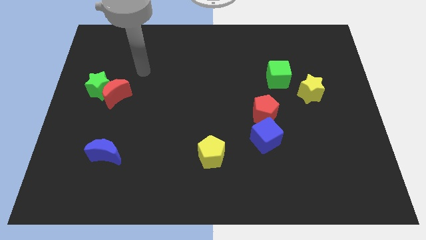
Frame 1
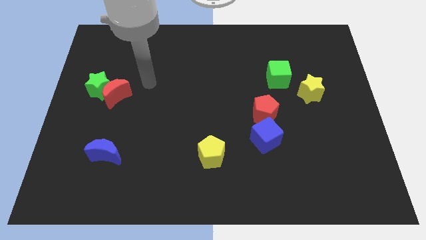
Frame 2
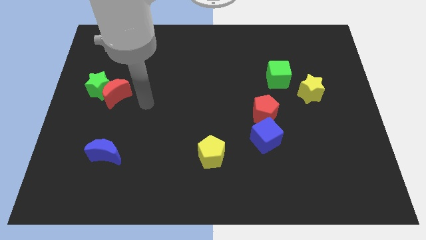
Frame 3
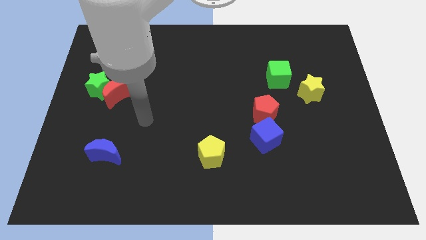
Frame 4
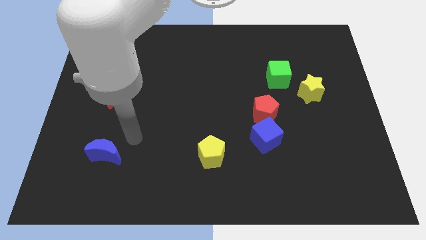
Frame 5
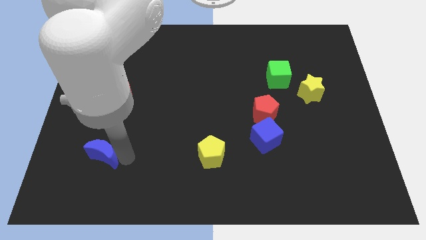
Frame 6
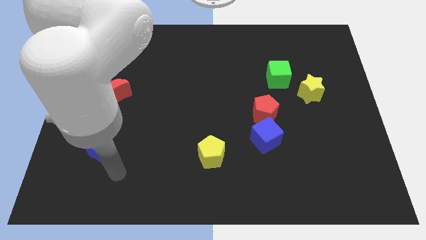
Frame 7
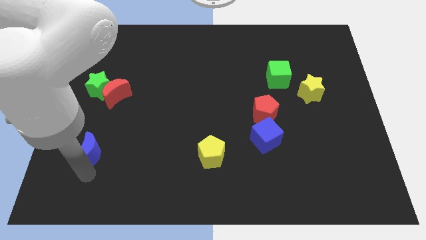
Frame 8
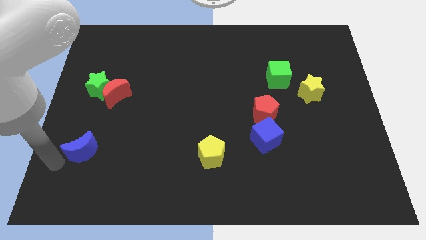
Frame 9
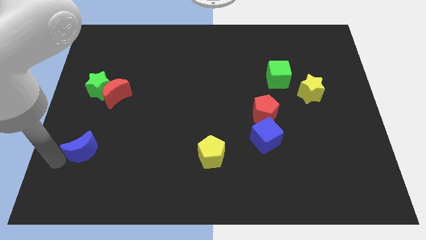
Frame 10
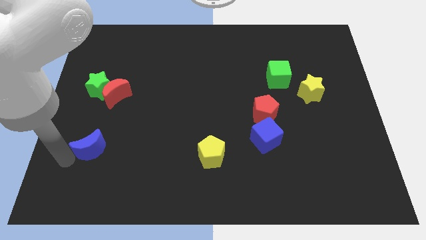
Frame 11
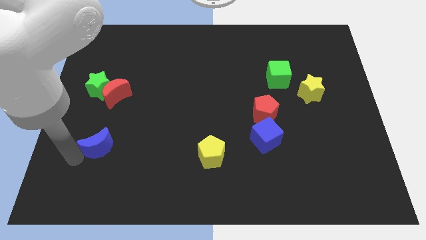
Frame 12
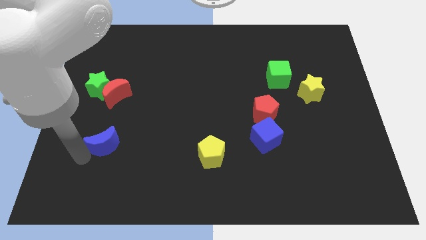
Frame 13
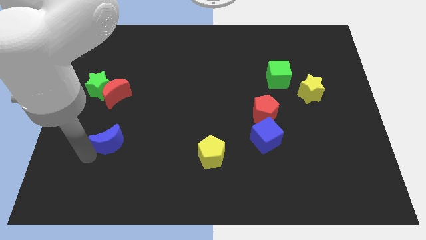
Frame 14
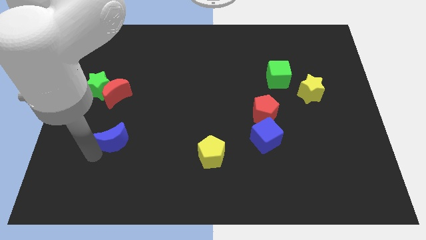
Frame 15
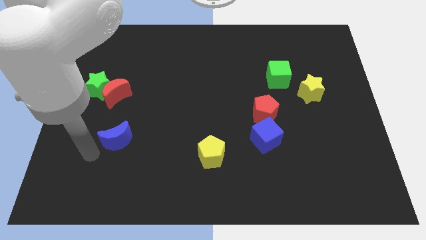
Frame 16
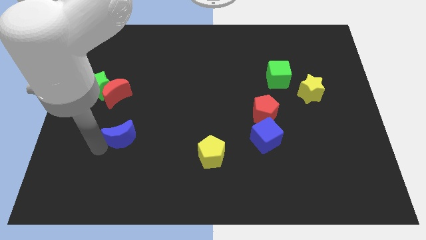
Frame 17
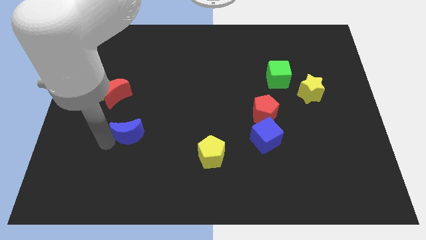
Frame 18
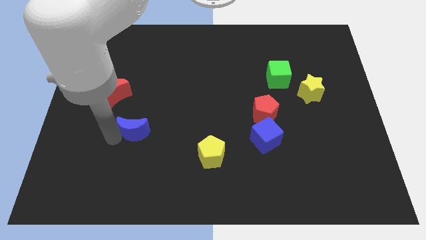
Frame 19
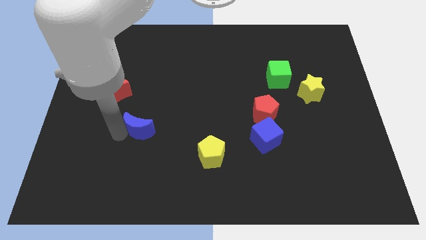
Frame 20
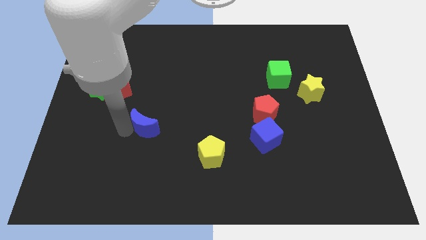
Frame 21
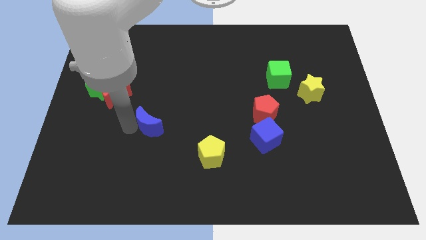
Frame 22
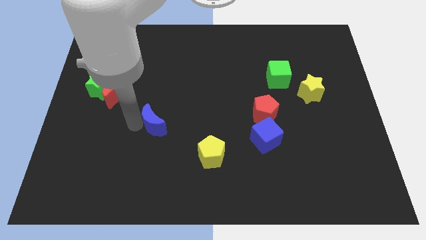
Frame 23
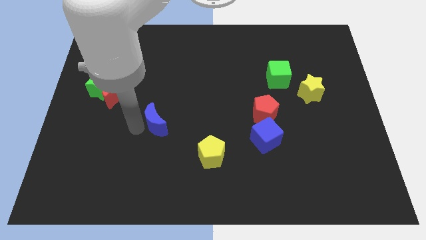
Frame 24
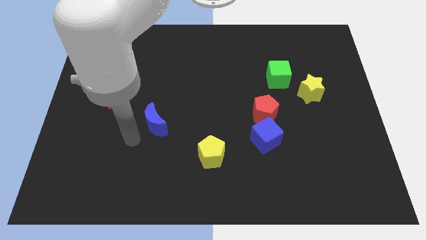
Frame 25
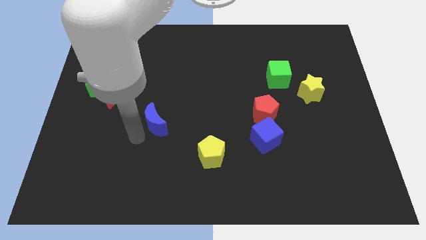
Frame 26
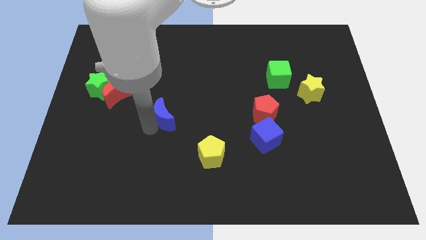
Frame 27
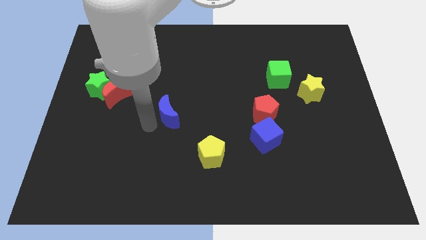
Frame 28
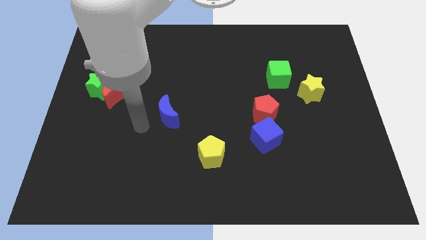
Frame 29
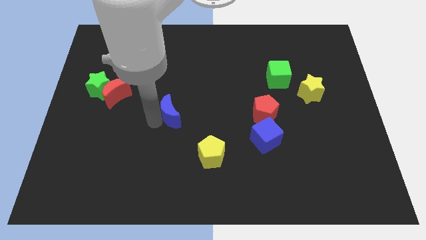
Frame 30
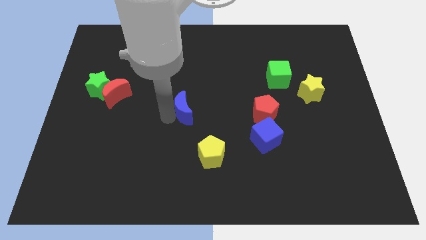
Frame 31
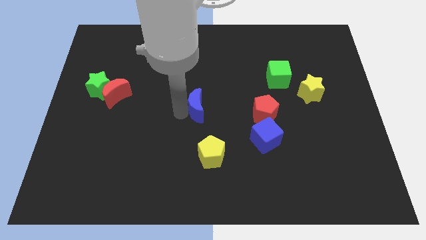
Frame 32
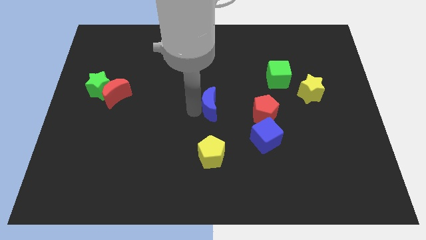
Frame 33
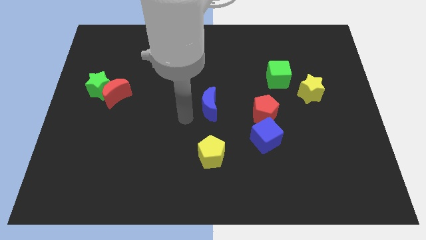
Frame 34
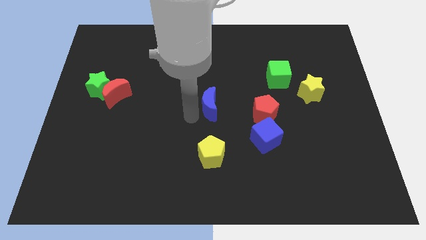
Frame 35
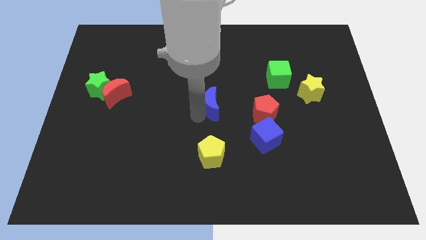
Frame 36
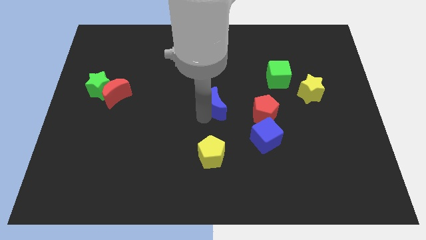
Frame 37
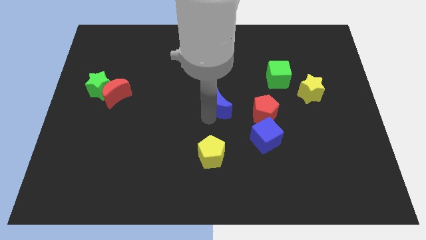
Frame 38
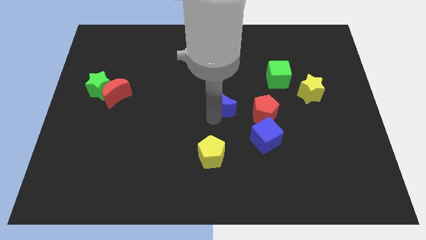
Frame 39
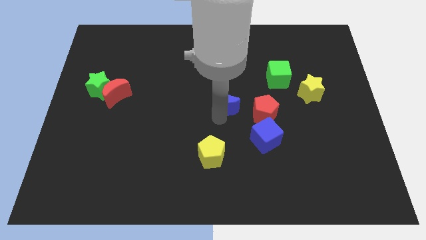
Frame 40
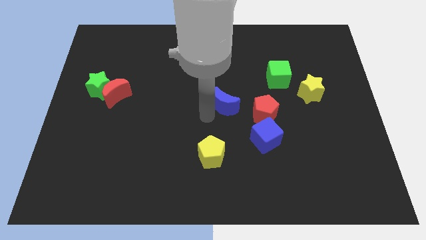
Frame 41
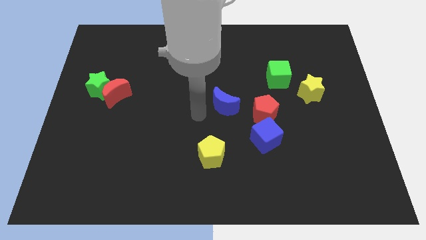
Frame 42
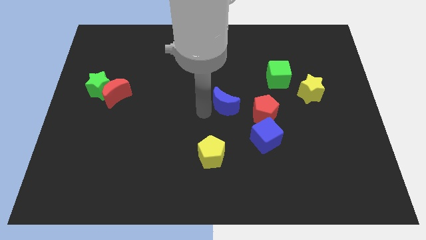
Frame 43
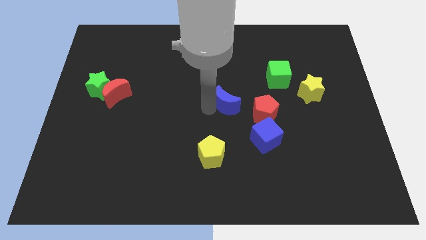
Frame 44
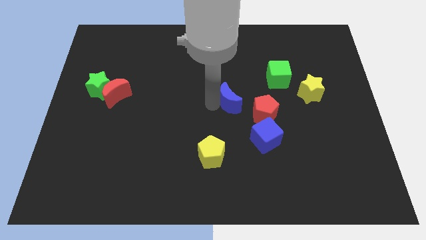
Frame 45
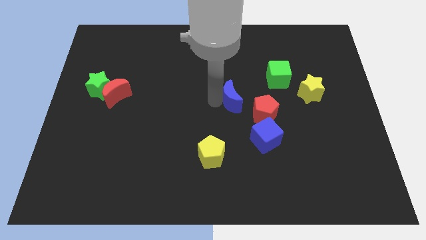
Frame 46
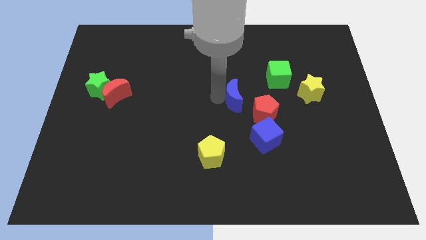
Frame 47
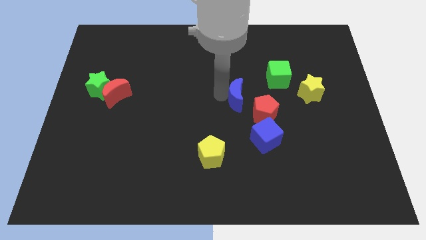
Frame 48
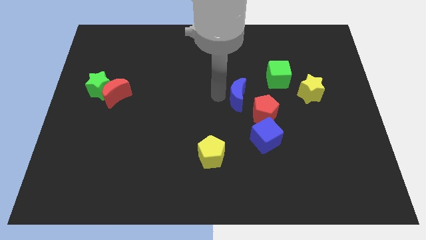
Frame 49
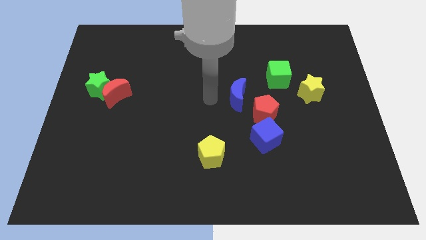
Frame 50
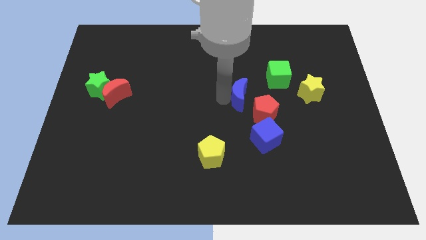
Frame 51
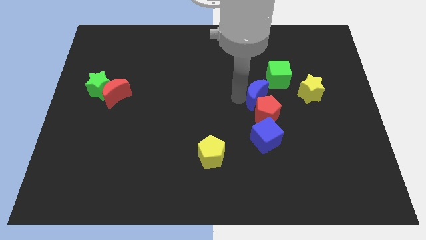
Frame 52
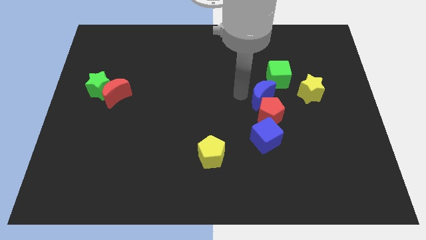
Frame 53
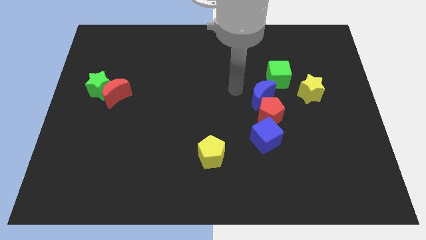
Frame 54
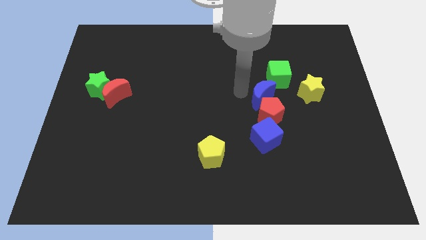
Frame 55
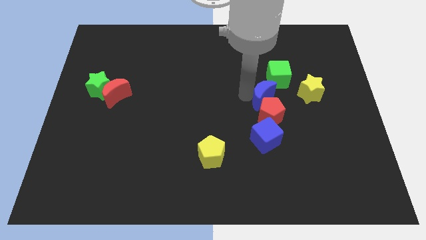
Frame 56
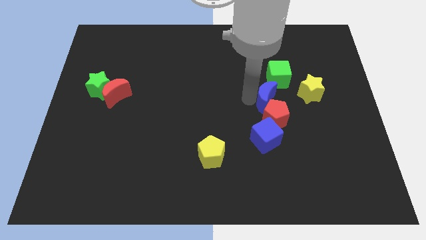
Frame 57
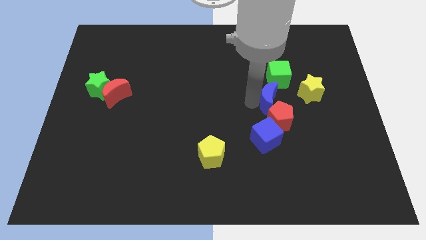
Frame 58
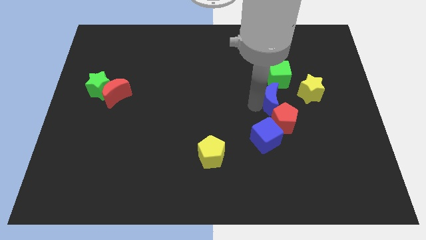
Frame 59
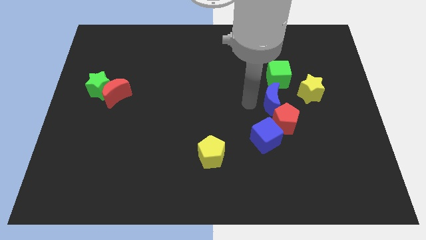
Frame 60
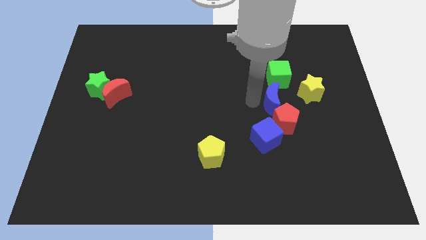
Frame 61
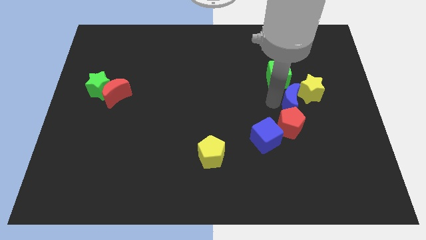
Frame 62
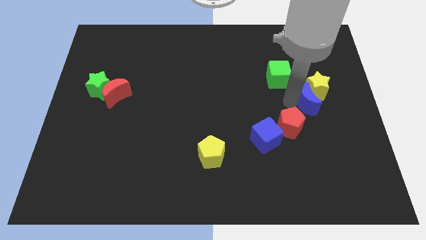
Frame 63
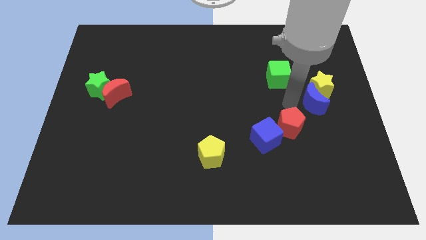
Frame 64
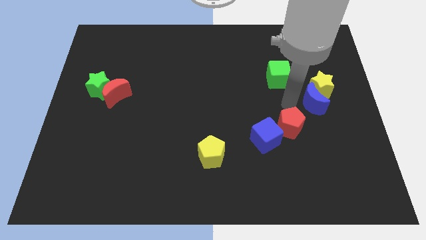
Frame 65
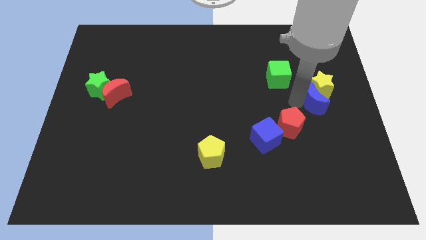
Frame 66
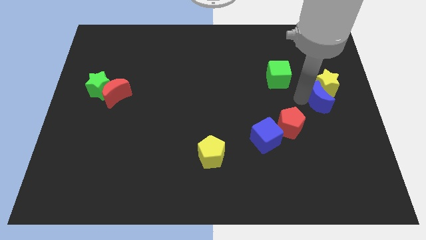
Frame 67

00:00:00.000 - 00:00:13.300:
move the blue moon to the right side
